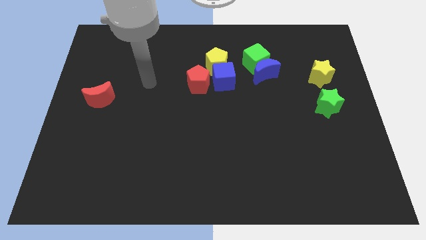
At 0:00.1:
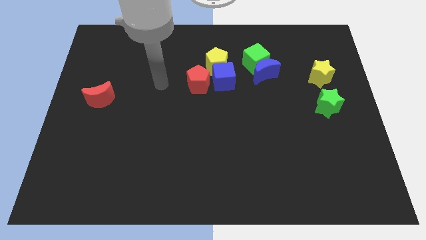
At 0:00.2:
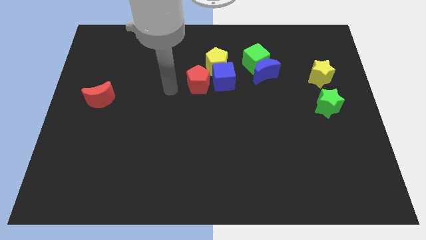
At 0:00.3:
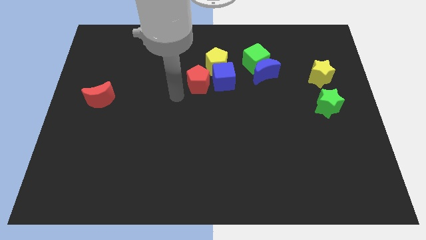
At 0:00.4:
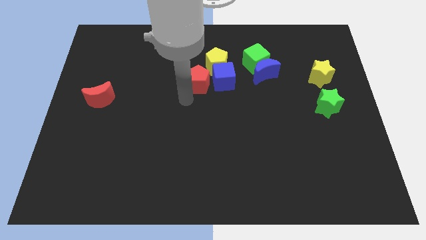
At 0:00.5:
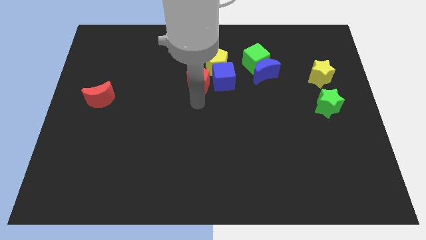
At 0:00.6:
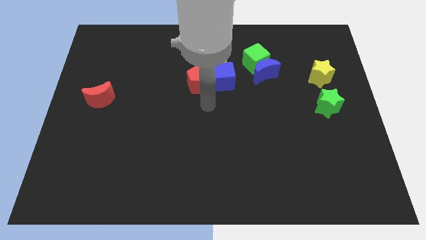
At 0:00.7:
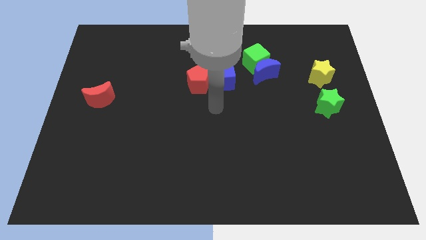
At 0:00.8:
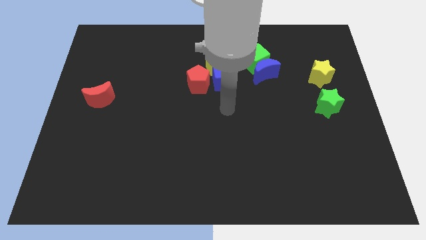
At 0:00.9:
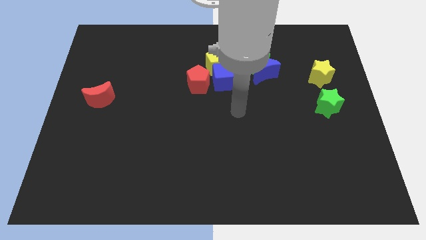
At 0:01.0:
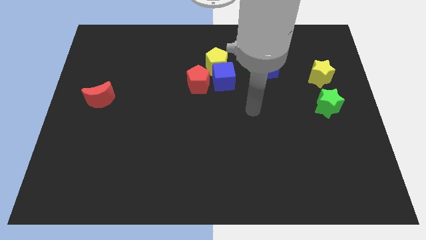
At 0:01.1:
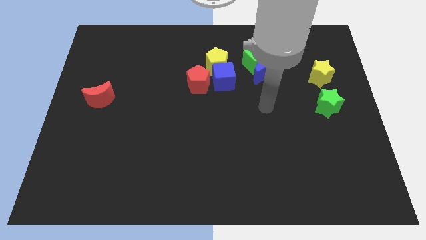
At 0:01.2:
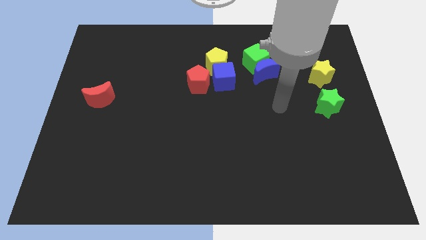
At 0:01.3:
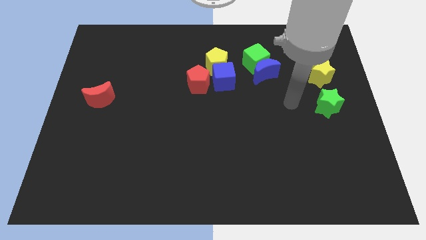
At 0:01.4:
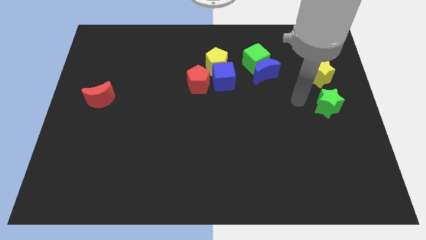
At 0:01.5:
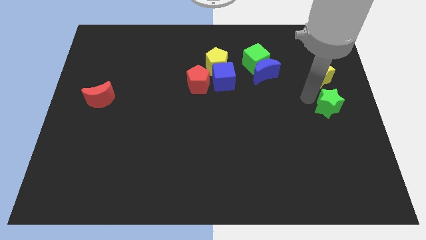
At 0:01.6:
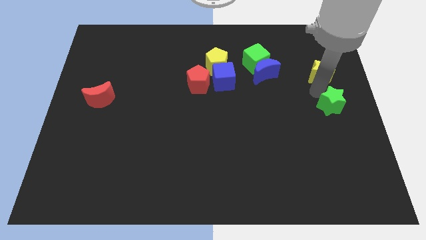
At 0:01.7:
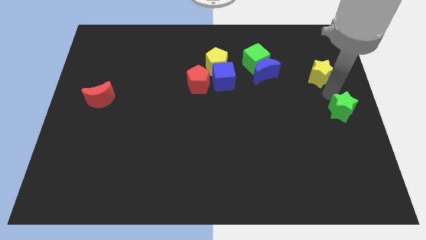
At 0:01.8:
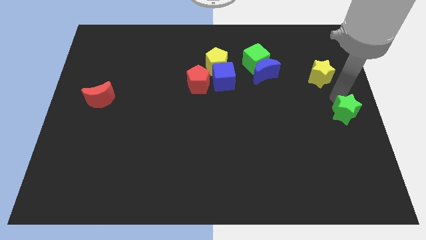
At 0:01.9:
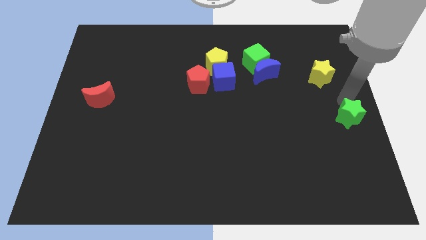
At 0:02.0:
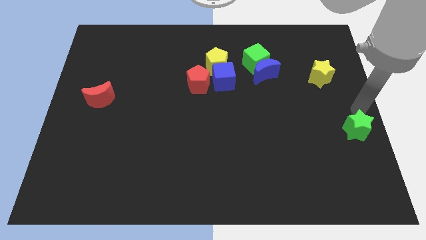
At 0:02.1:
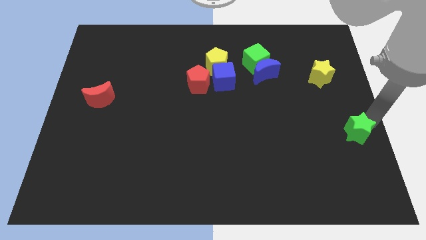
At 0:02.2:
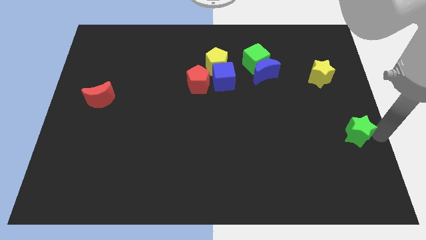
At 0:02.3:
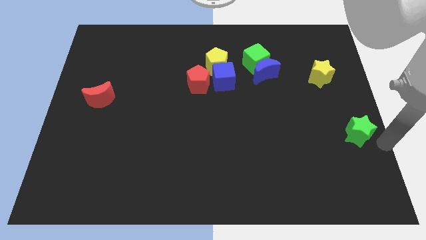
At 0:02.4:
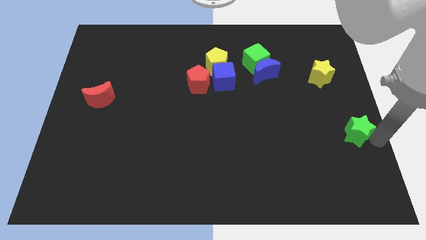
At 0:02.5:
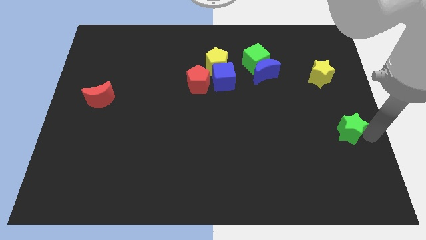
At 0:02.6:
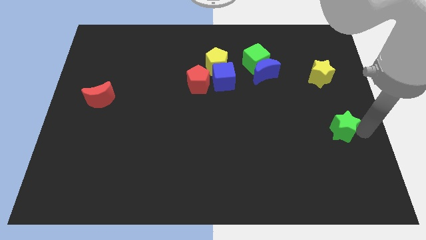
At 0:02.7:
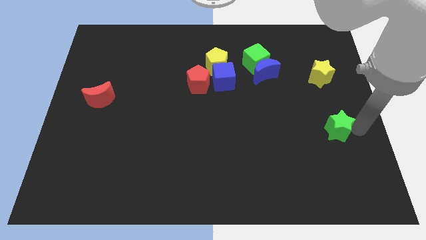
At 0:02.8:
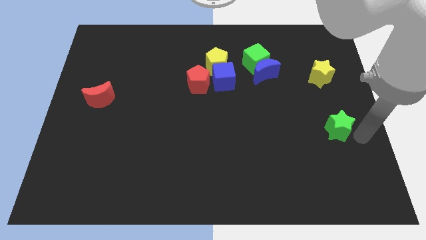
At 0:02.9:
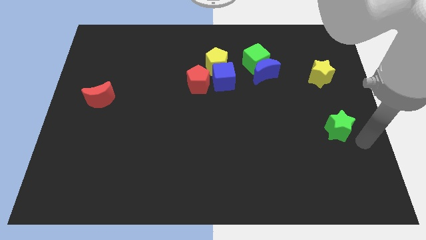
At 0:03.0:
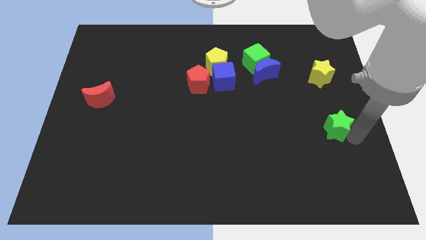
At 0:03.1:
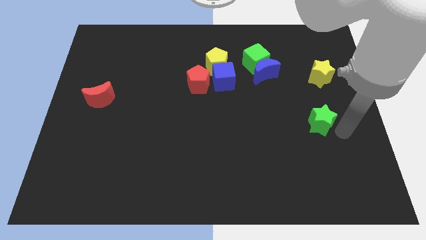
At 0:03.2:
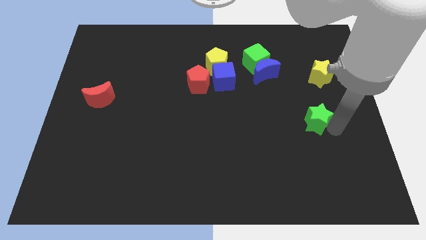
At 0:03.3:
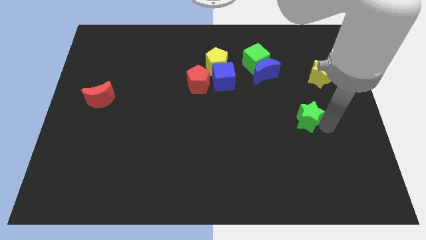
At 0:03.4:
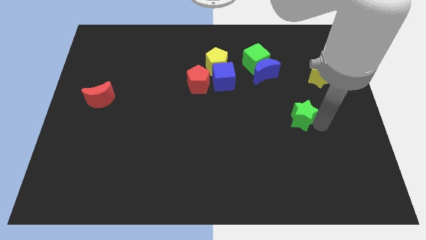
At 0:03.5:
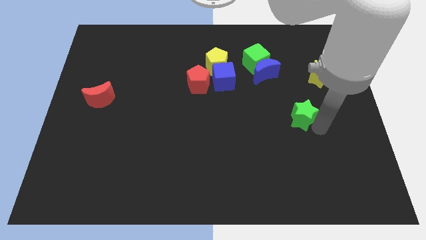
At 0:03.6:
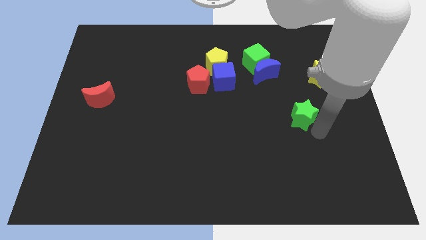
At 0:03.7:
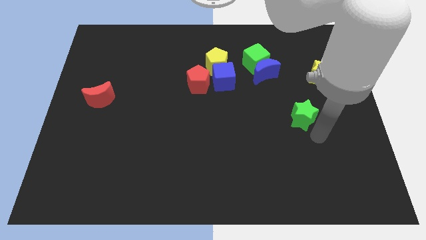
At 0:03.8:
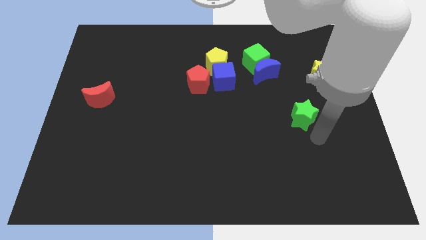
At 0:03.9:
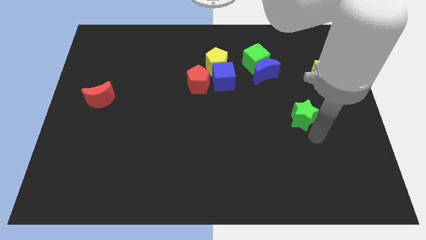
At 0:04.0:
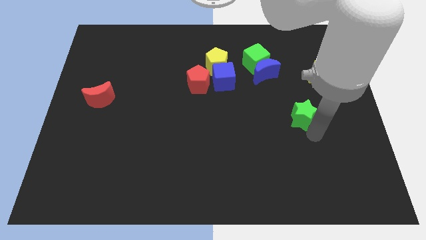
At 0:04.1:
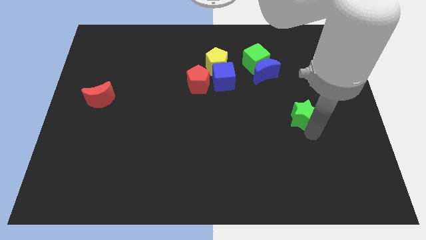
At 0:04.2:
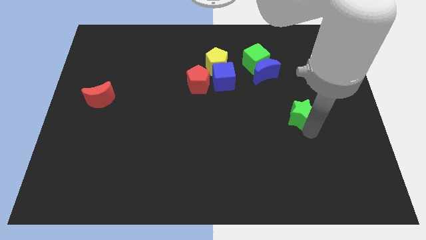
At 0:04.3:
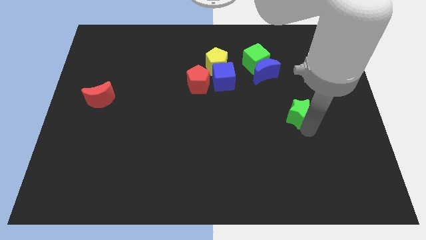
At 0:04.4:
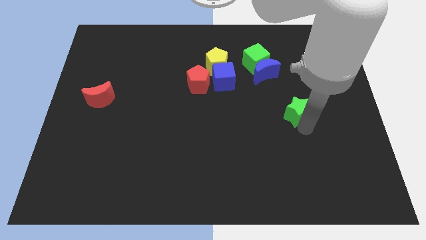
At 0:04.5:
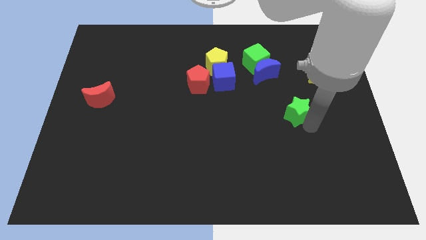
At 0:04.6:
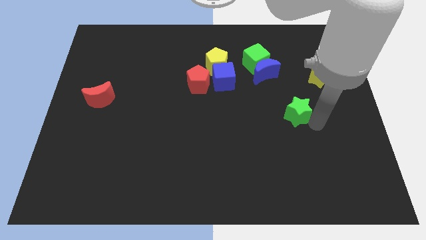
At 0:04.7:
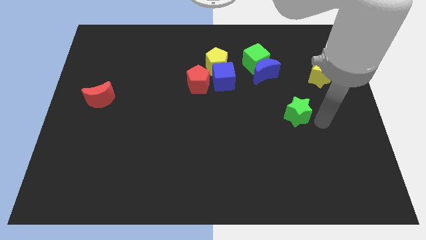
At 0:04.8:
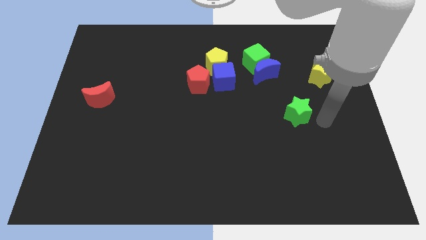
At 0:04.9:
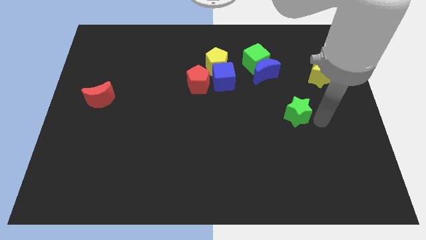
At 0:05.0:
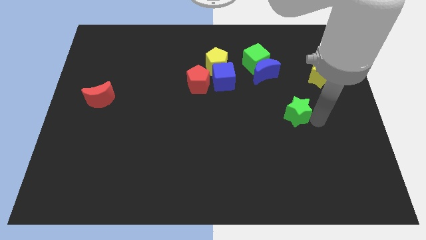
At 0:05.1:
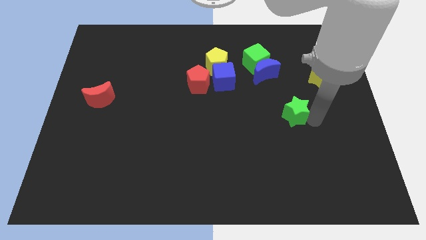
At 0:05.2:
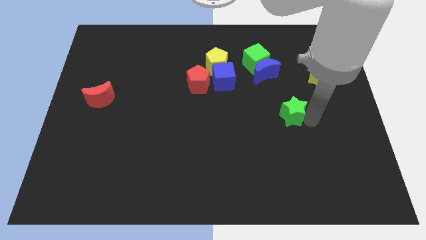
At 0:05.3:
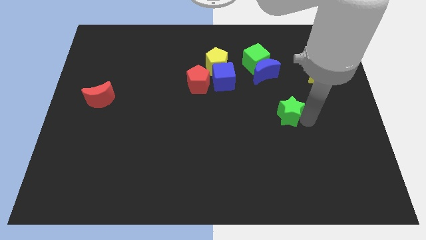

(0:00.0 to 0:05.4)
move the green star below the blue moon

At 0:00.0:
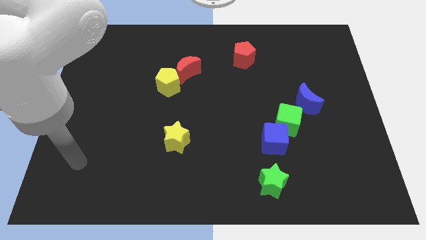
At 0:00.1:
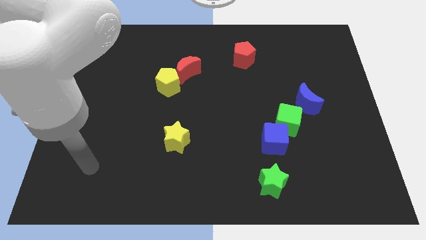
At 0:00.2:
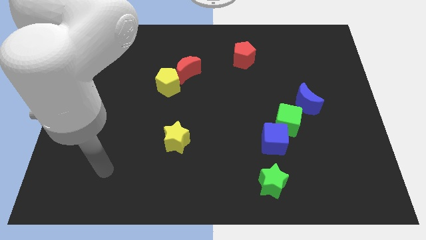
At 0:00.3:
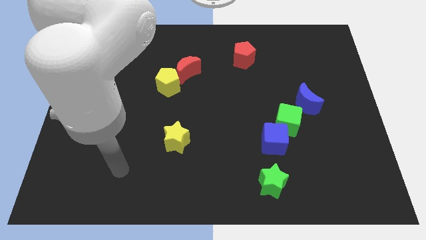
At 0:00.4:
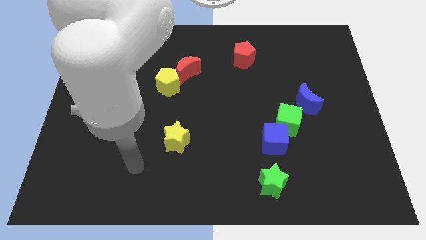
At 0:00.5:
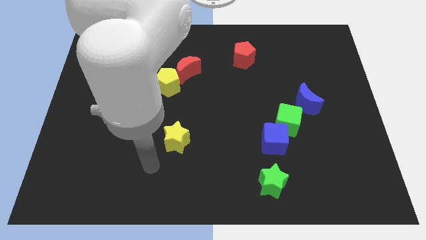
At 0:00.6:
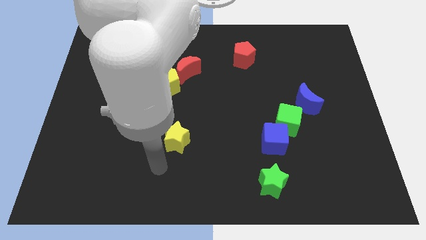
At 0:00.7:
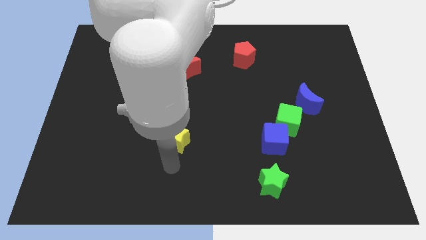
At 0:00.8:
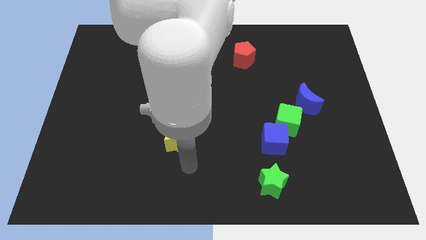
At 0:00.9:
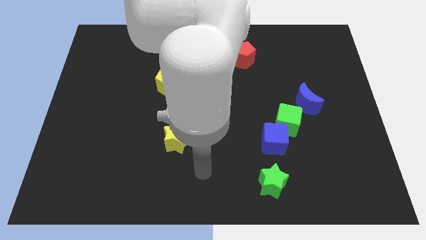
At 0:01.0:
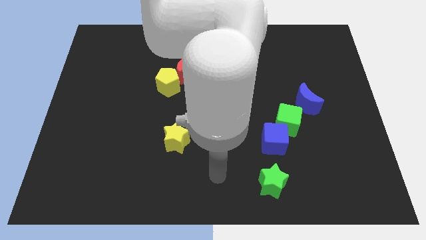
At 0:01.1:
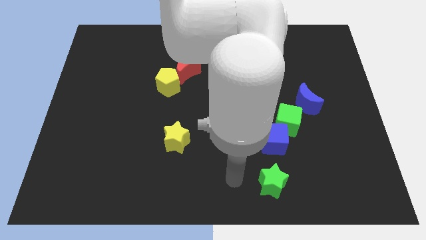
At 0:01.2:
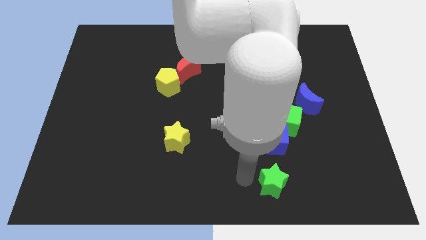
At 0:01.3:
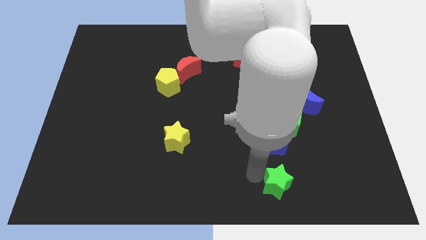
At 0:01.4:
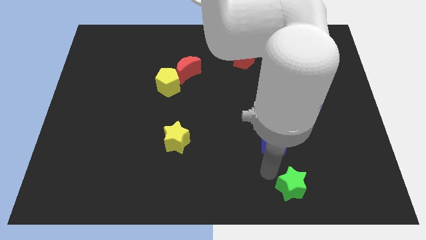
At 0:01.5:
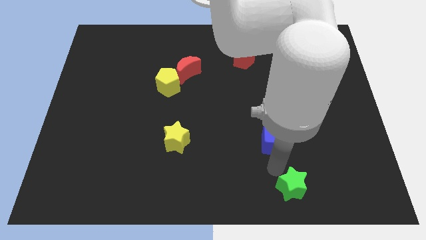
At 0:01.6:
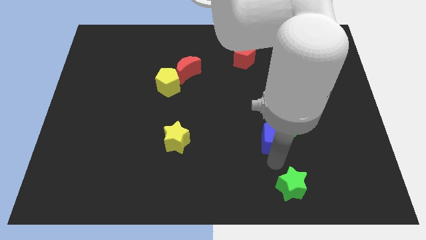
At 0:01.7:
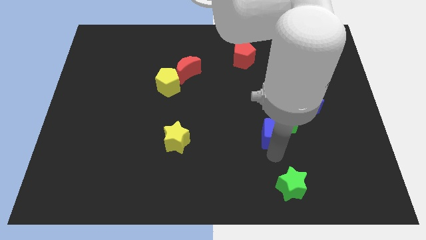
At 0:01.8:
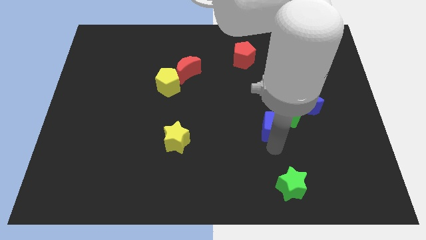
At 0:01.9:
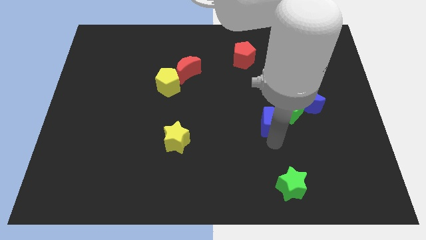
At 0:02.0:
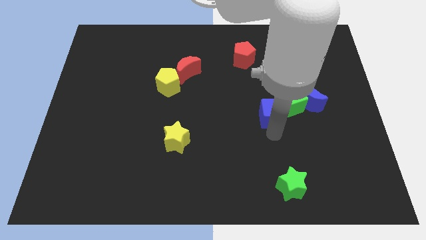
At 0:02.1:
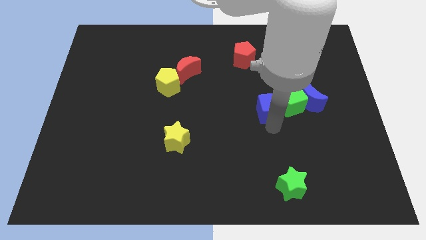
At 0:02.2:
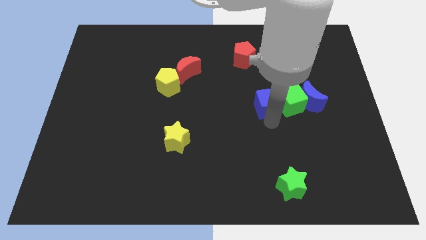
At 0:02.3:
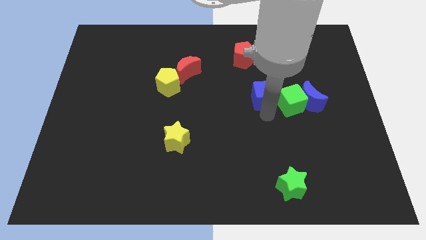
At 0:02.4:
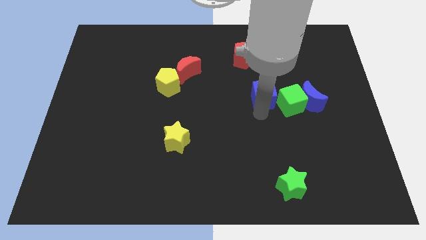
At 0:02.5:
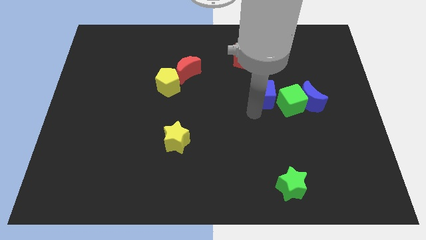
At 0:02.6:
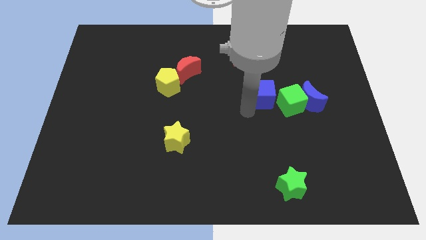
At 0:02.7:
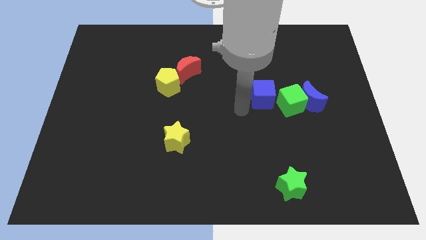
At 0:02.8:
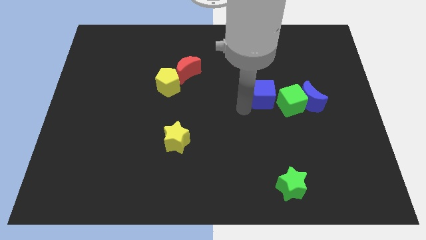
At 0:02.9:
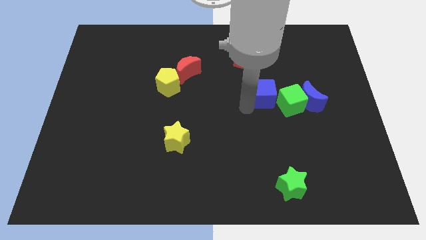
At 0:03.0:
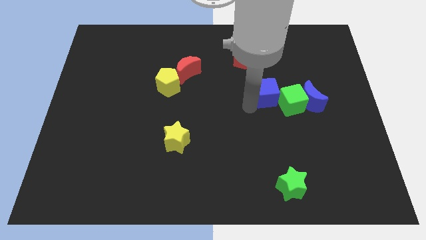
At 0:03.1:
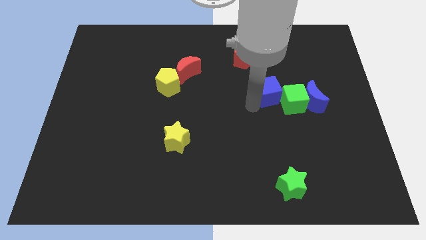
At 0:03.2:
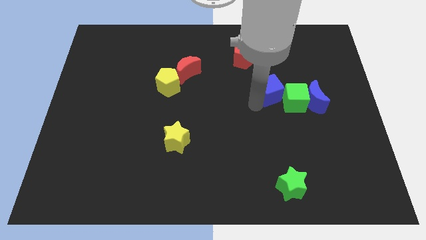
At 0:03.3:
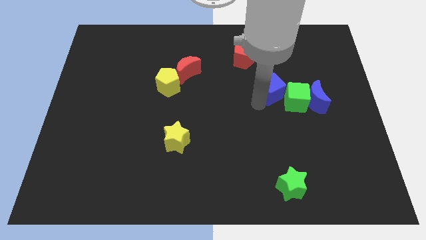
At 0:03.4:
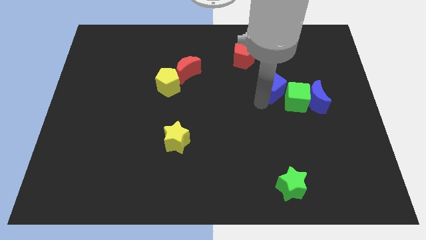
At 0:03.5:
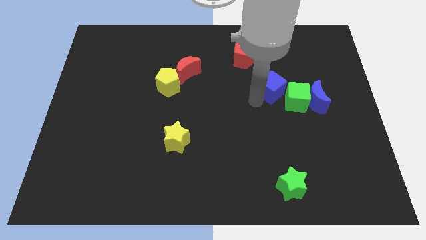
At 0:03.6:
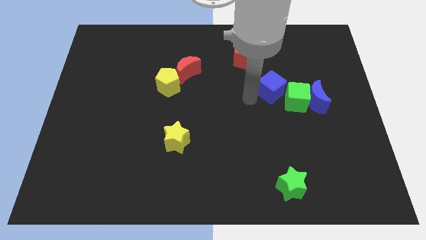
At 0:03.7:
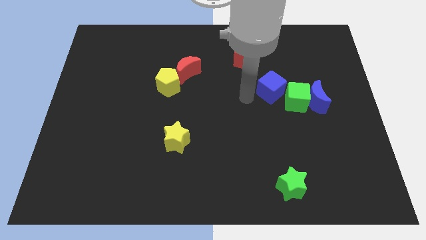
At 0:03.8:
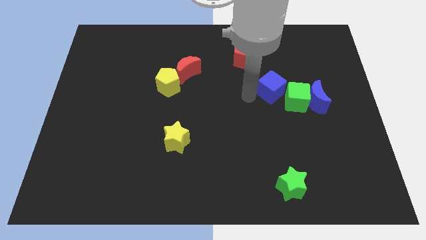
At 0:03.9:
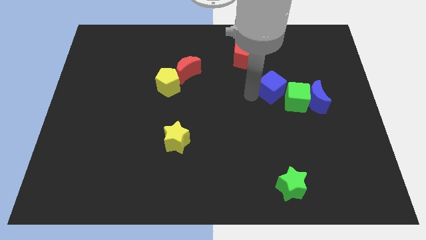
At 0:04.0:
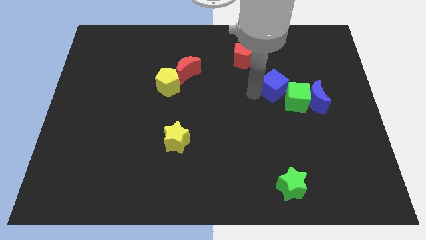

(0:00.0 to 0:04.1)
put the blue cube to the top left of the blue moon
